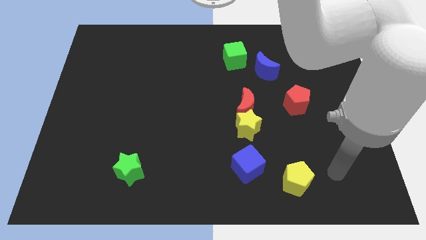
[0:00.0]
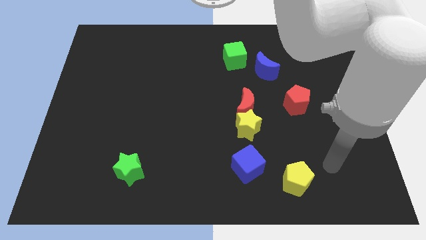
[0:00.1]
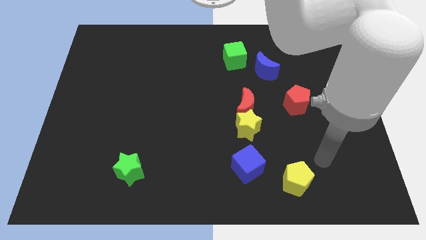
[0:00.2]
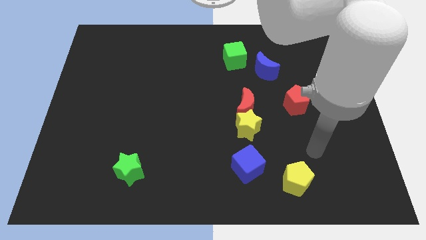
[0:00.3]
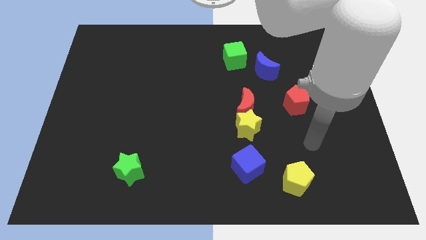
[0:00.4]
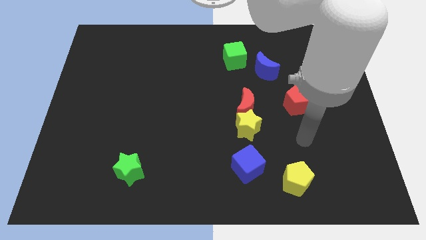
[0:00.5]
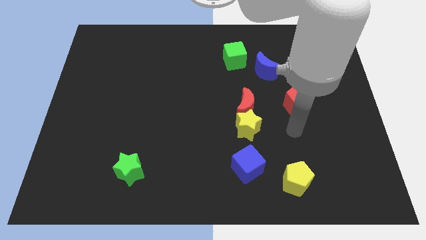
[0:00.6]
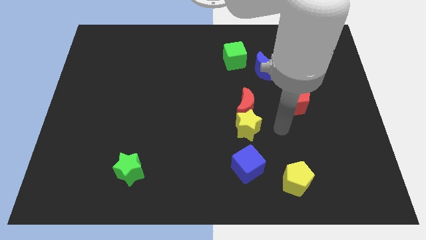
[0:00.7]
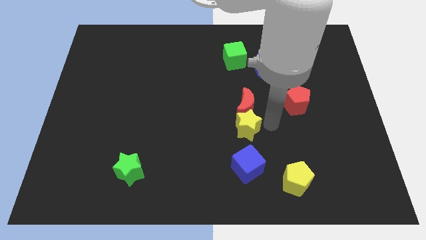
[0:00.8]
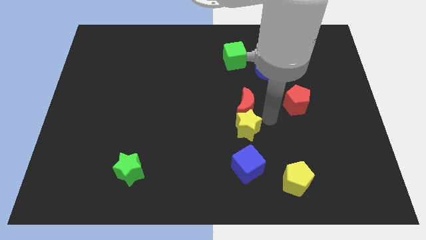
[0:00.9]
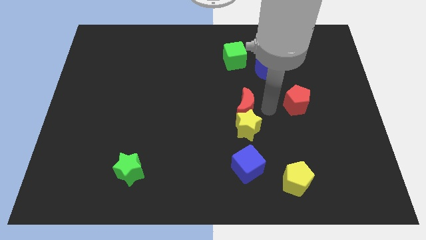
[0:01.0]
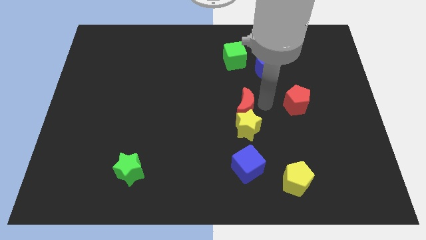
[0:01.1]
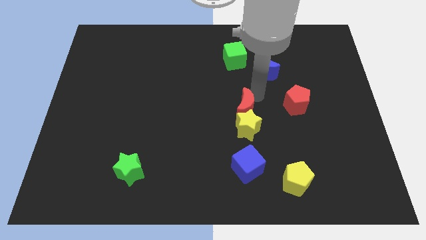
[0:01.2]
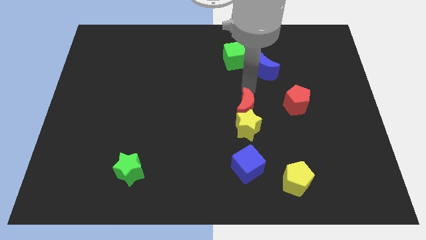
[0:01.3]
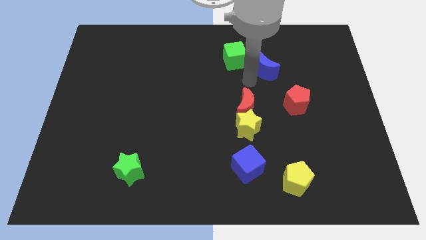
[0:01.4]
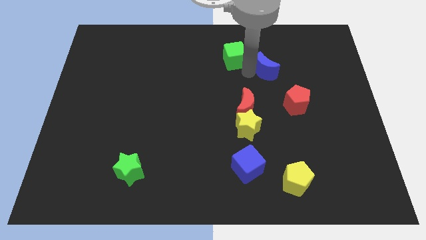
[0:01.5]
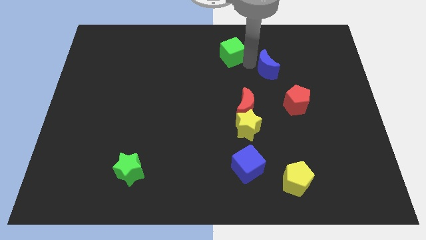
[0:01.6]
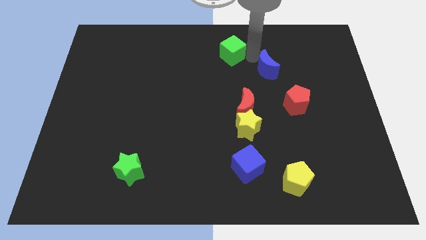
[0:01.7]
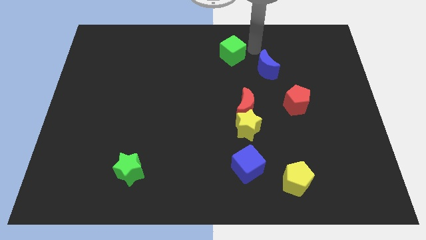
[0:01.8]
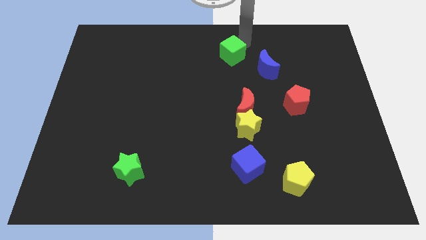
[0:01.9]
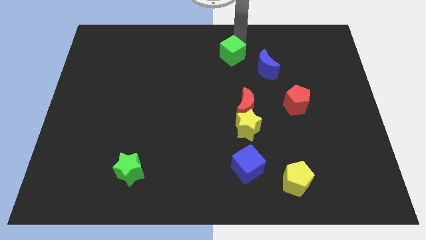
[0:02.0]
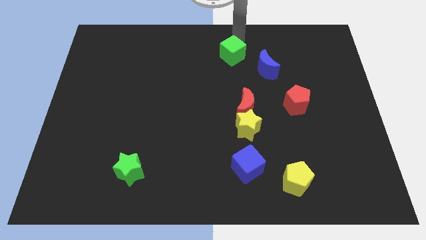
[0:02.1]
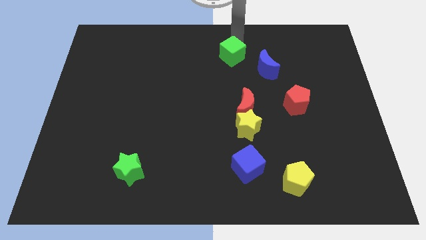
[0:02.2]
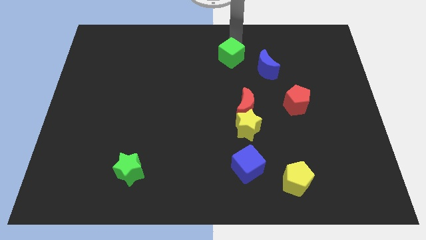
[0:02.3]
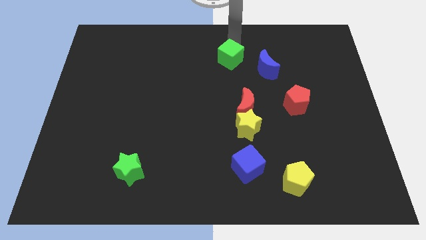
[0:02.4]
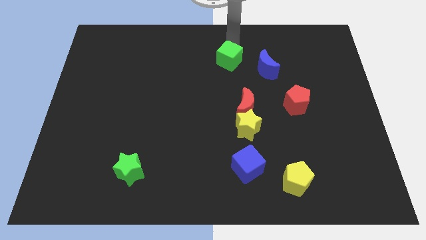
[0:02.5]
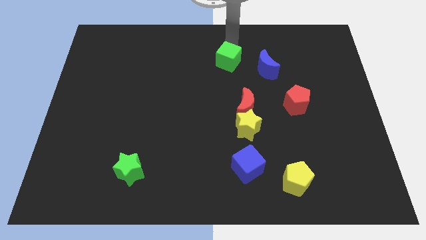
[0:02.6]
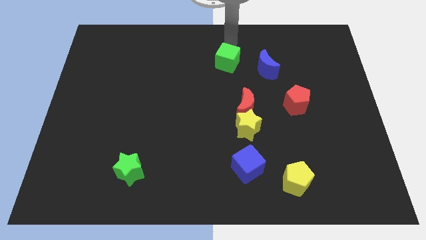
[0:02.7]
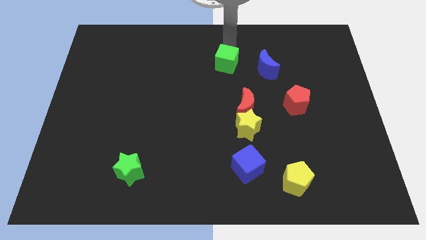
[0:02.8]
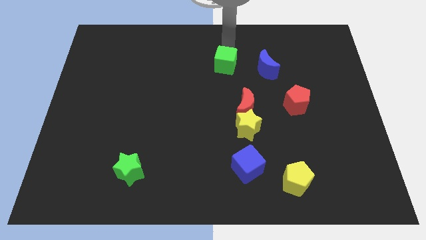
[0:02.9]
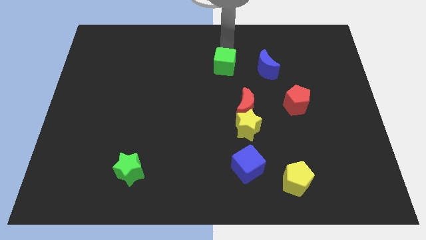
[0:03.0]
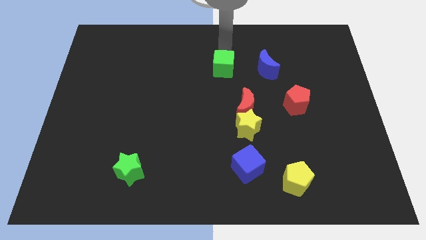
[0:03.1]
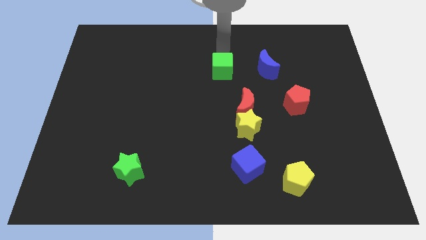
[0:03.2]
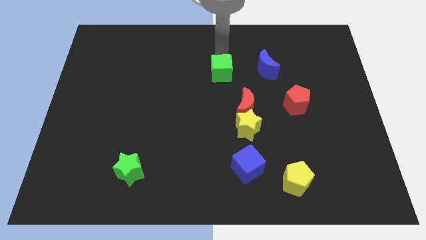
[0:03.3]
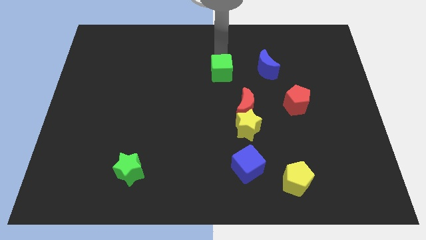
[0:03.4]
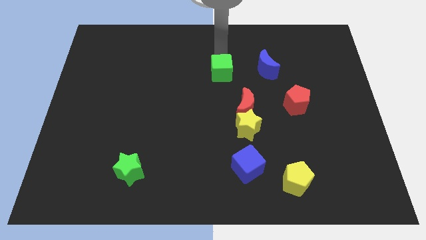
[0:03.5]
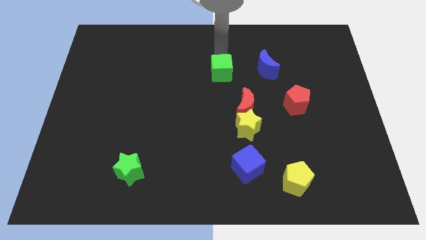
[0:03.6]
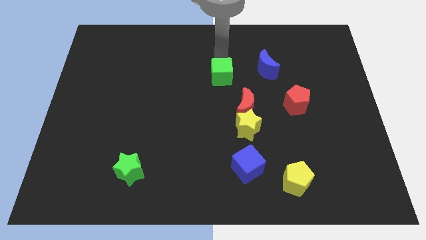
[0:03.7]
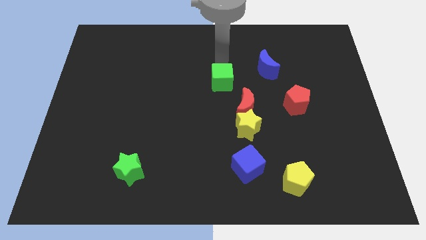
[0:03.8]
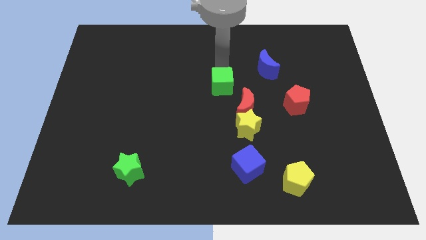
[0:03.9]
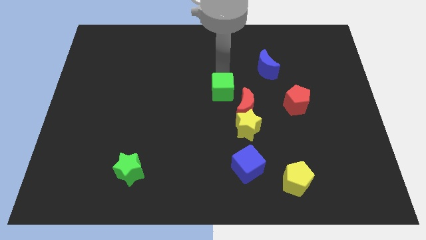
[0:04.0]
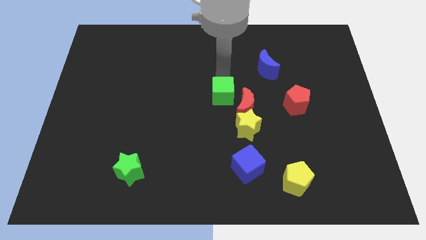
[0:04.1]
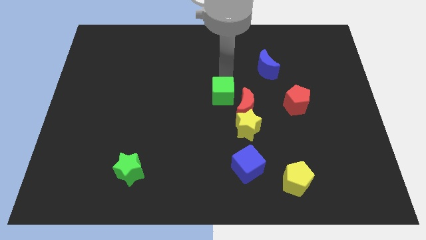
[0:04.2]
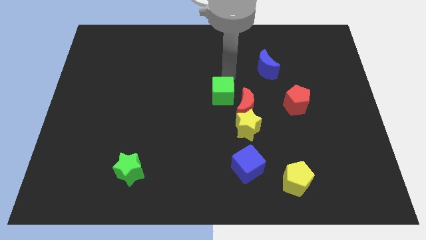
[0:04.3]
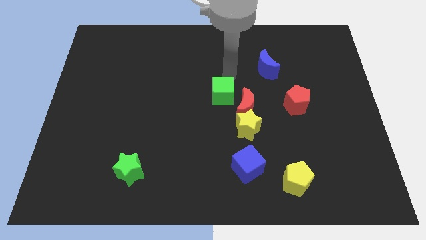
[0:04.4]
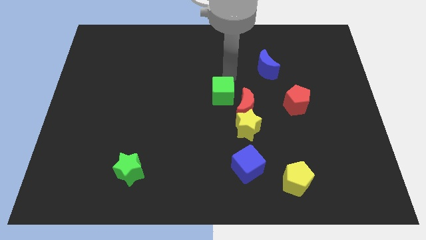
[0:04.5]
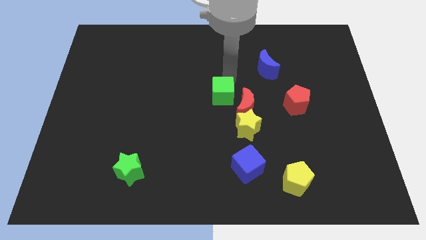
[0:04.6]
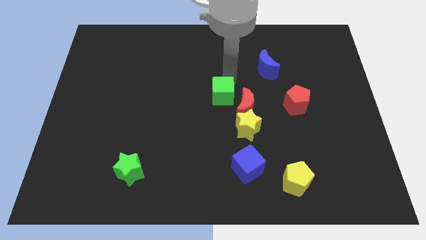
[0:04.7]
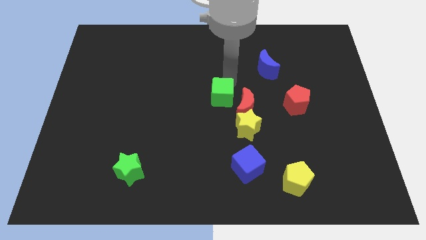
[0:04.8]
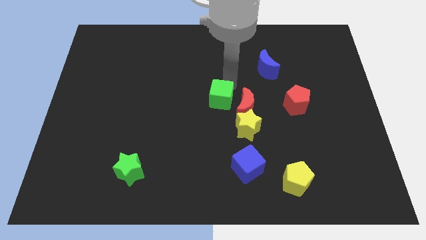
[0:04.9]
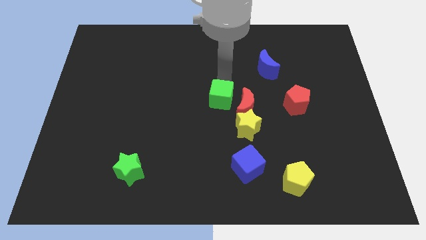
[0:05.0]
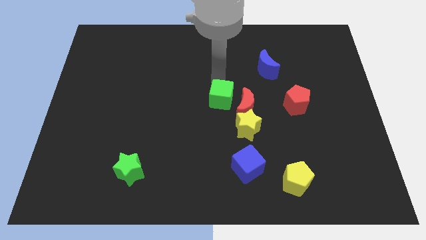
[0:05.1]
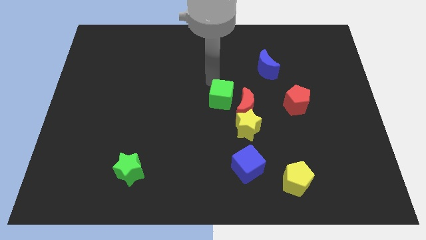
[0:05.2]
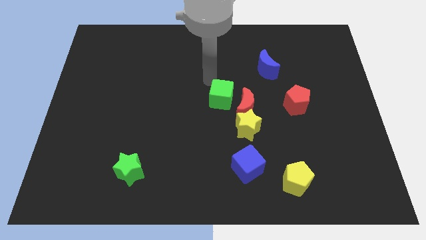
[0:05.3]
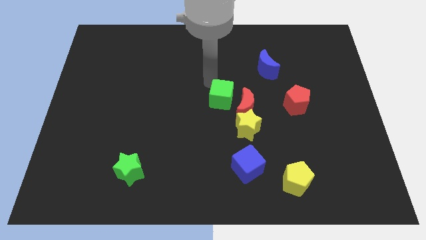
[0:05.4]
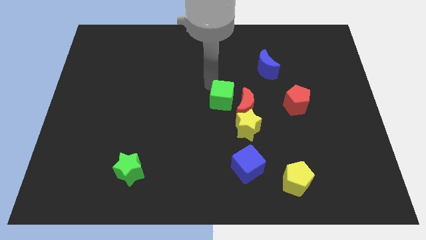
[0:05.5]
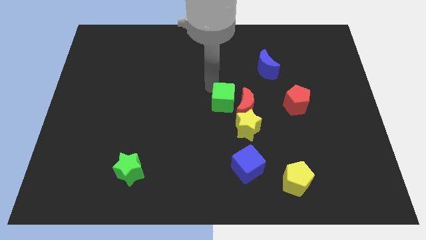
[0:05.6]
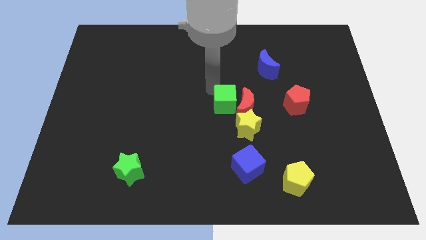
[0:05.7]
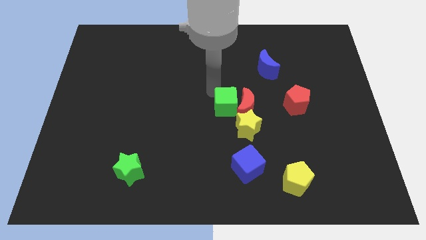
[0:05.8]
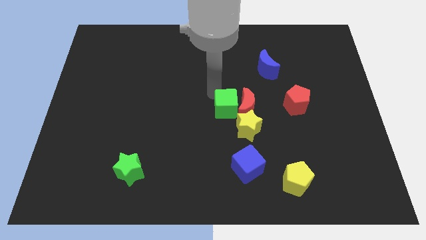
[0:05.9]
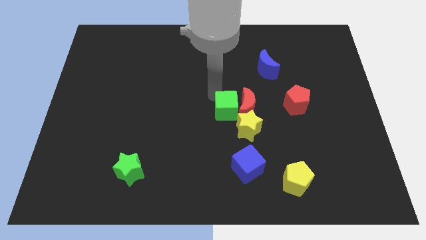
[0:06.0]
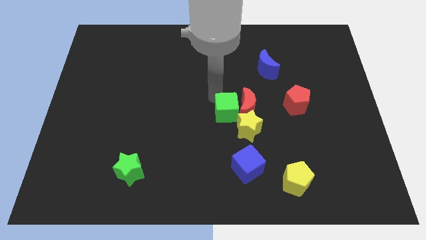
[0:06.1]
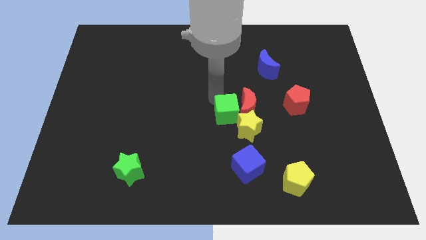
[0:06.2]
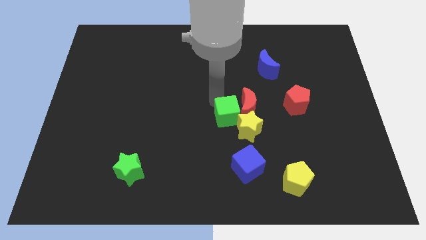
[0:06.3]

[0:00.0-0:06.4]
put the green cube towards the yellow star

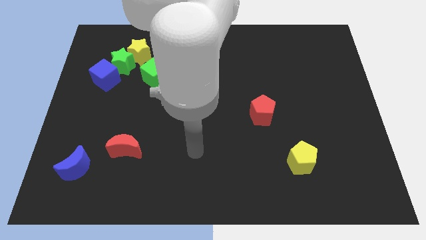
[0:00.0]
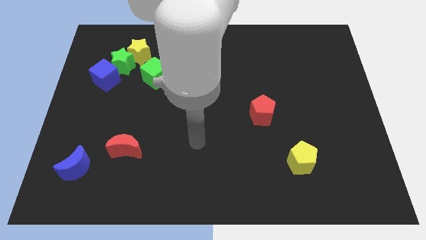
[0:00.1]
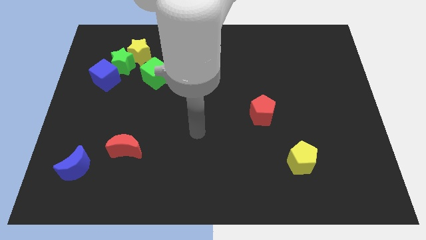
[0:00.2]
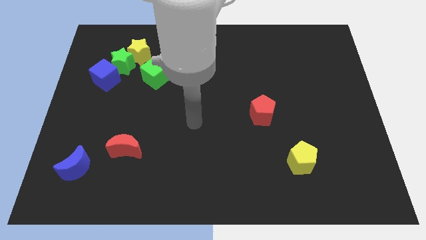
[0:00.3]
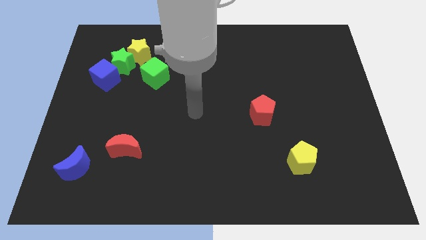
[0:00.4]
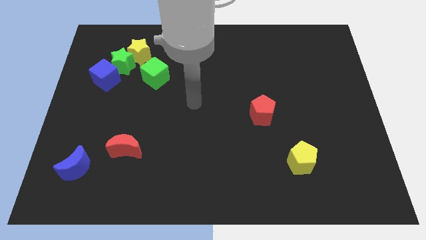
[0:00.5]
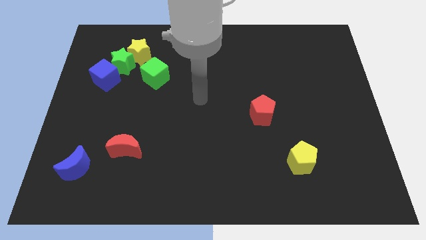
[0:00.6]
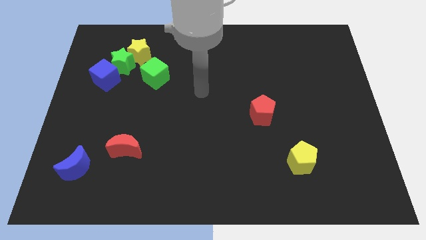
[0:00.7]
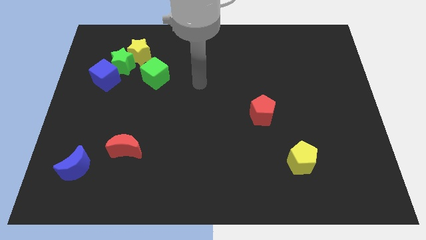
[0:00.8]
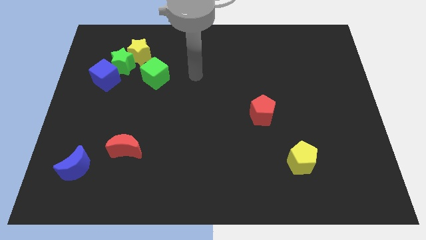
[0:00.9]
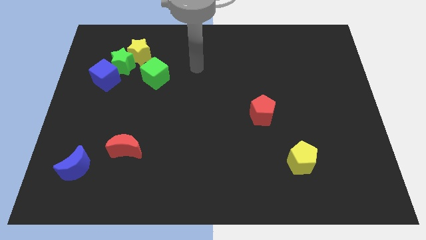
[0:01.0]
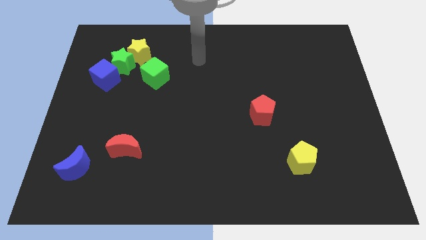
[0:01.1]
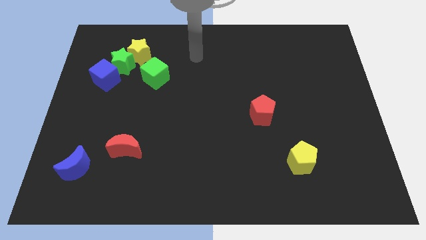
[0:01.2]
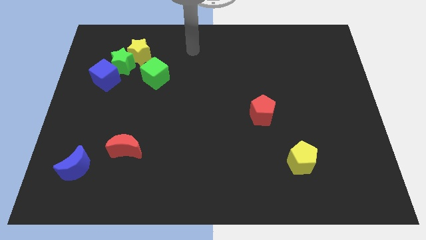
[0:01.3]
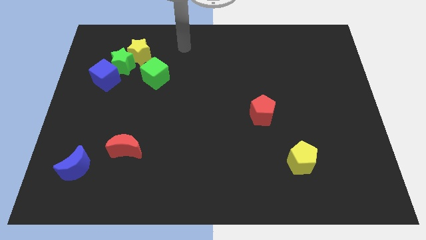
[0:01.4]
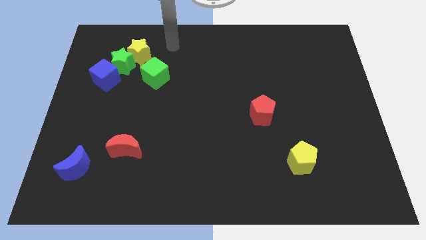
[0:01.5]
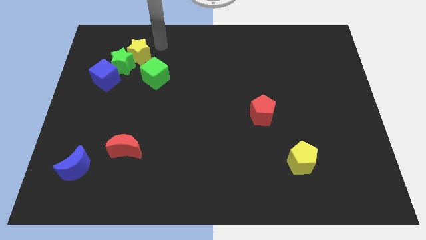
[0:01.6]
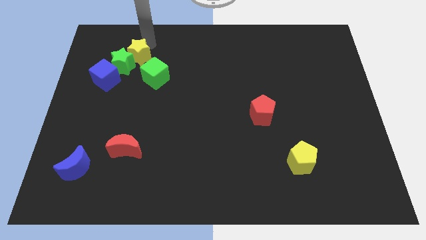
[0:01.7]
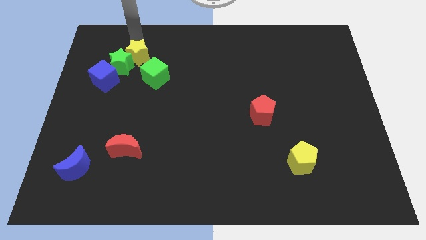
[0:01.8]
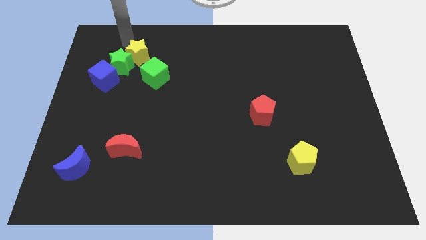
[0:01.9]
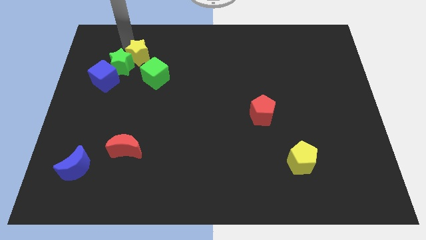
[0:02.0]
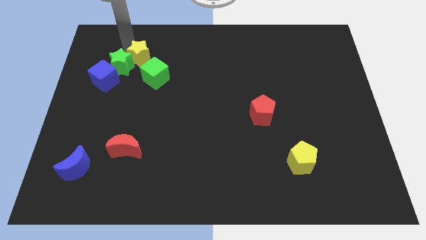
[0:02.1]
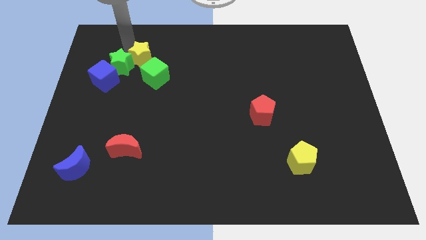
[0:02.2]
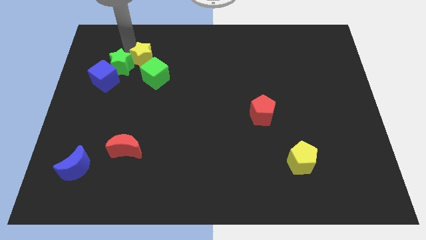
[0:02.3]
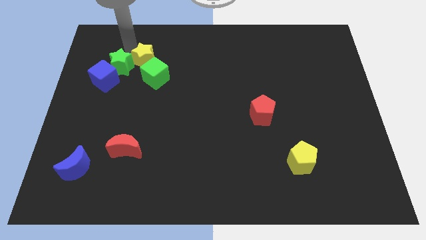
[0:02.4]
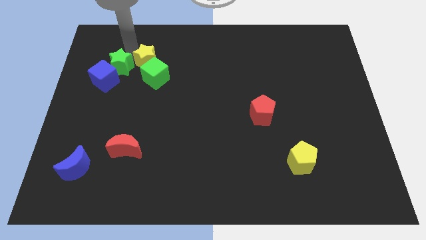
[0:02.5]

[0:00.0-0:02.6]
slide the yellow star towards the green cube
